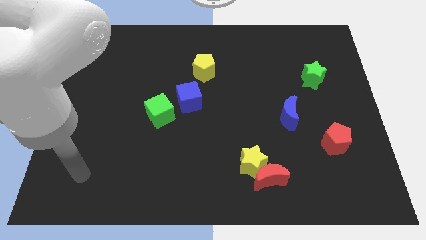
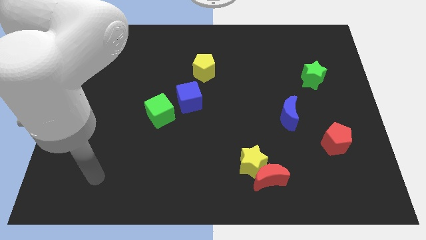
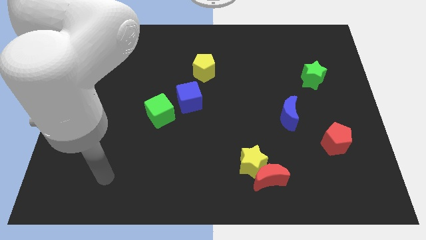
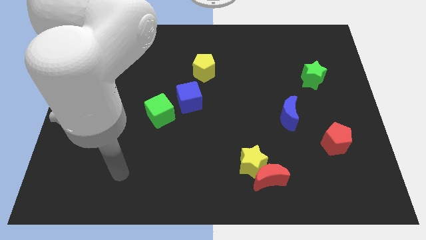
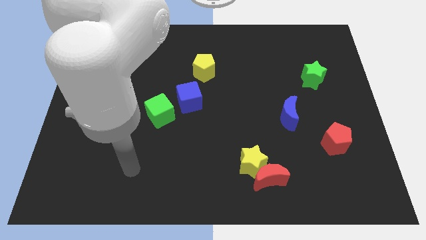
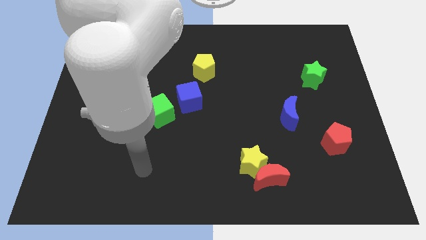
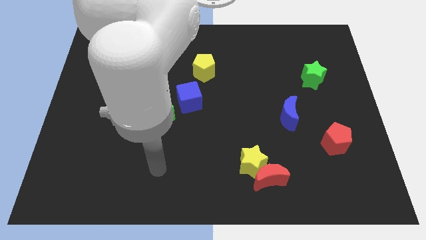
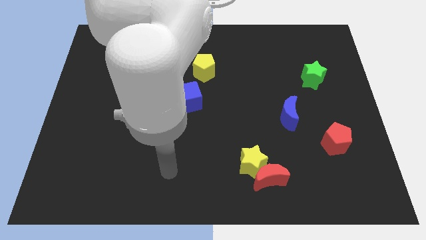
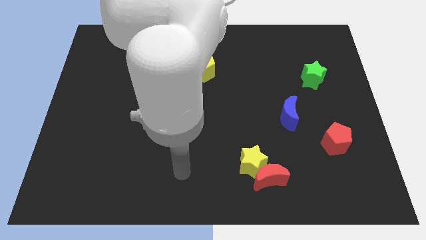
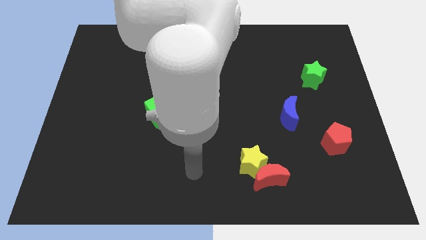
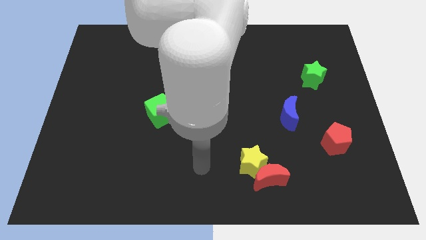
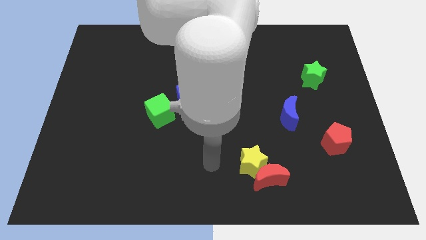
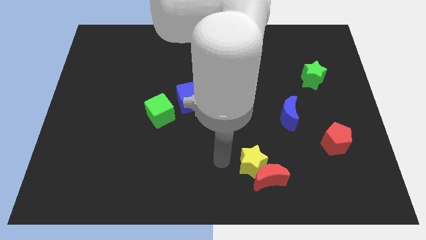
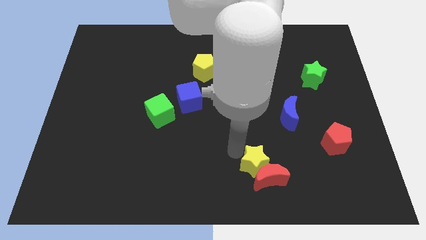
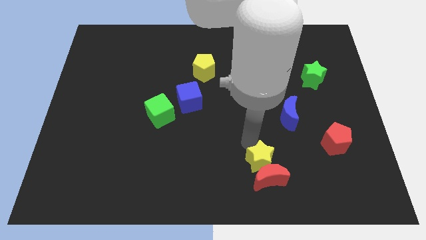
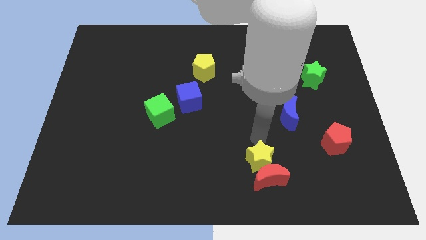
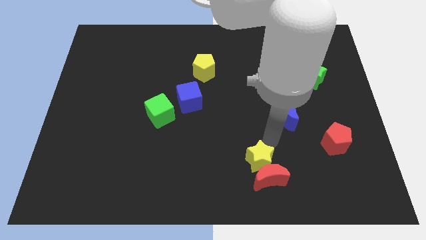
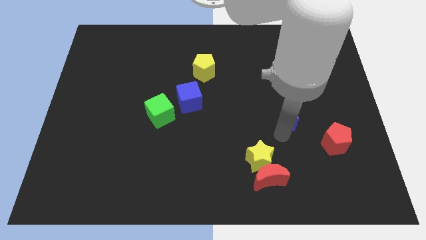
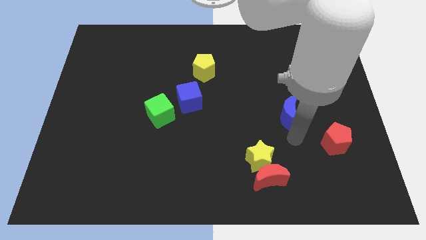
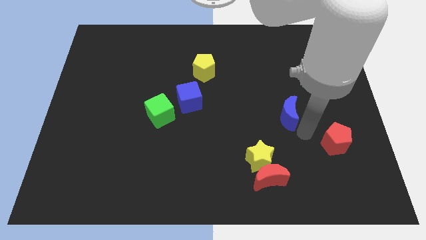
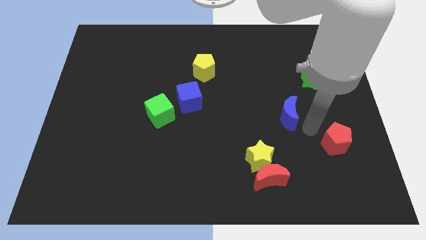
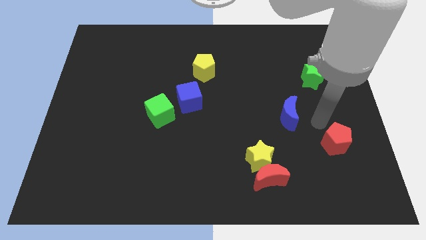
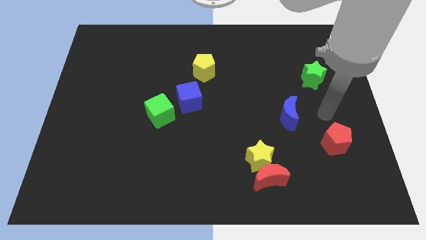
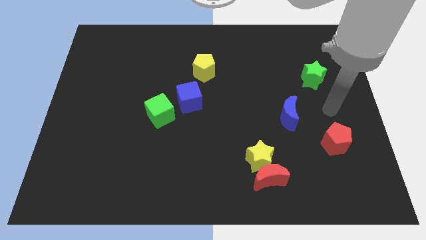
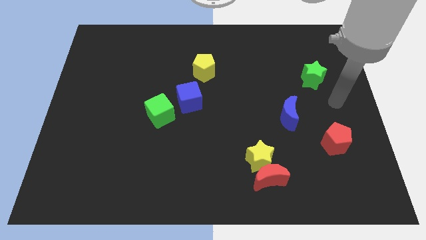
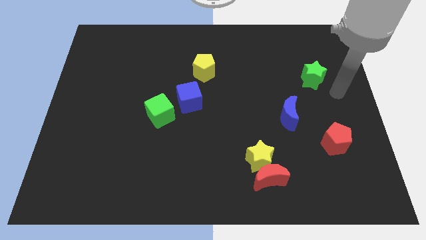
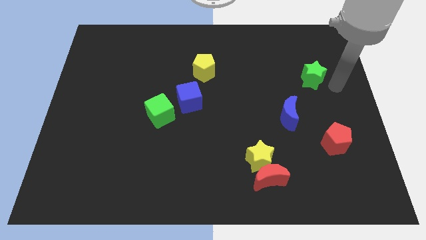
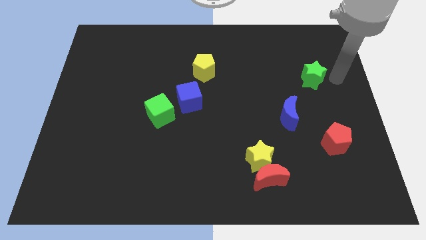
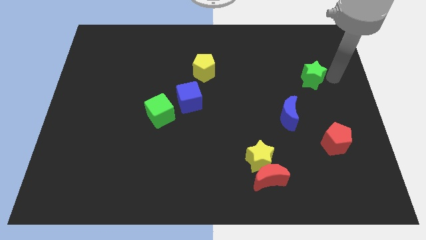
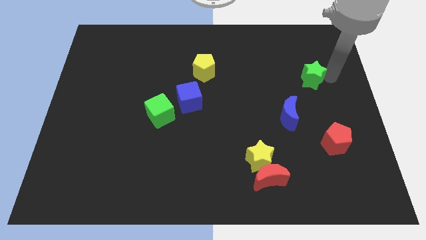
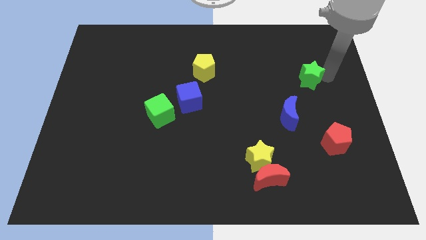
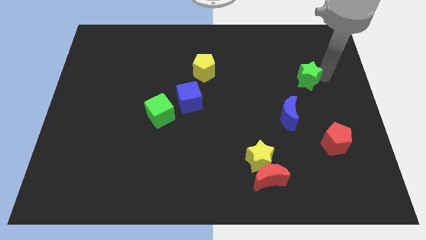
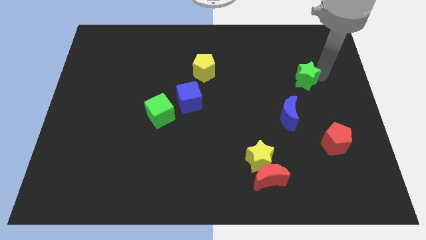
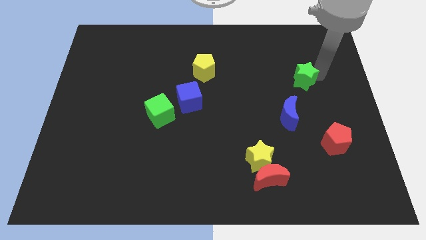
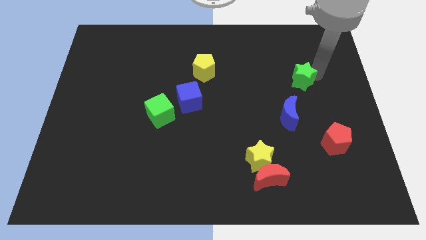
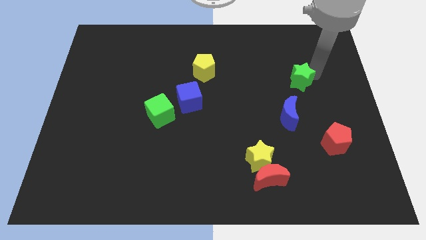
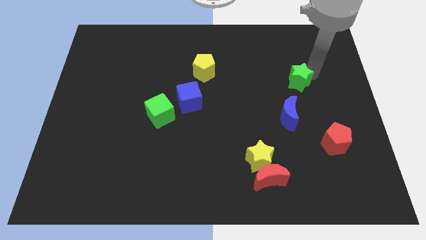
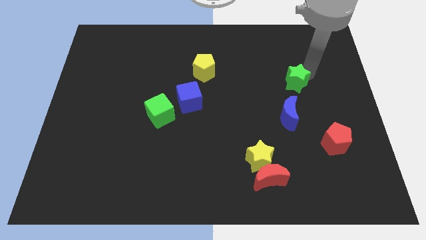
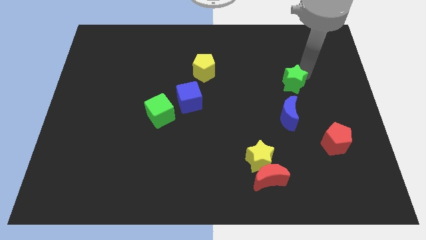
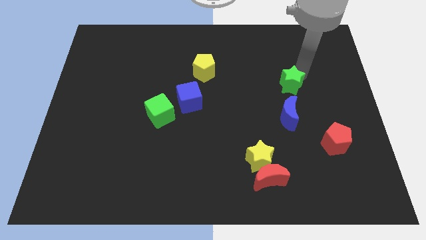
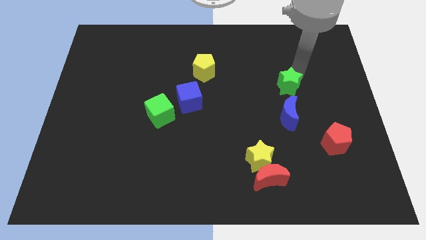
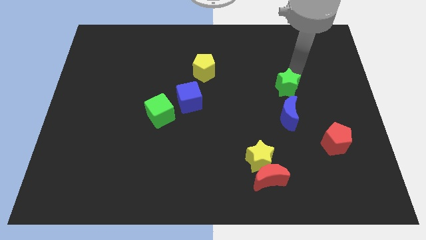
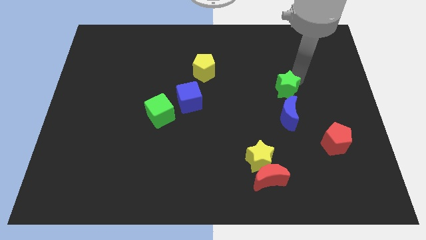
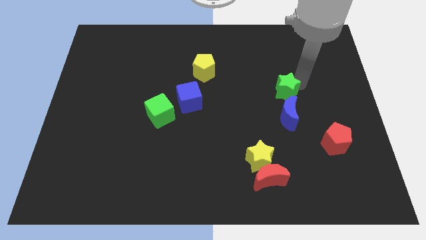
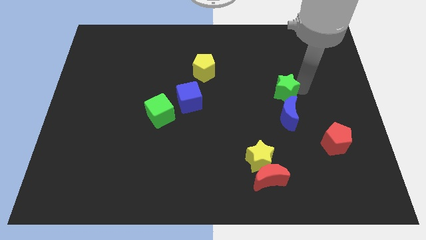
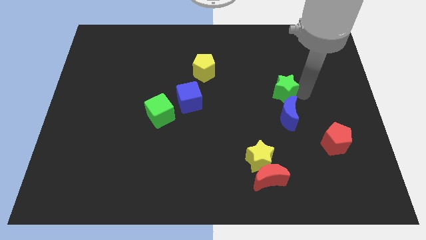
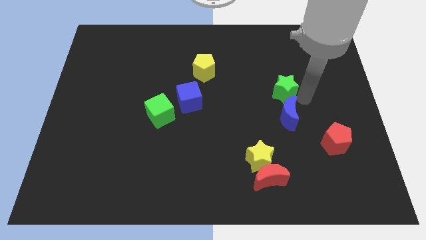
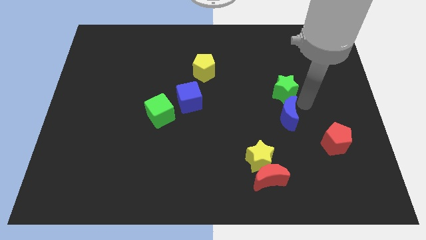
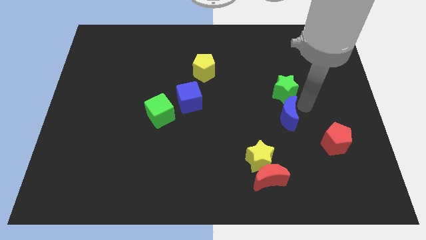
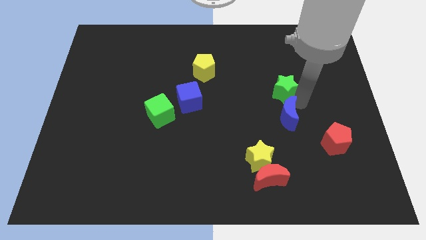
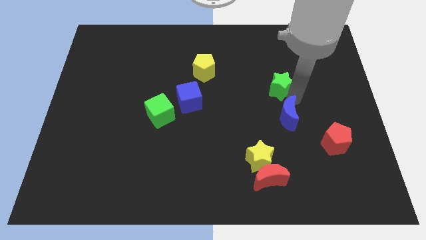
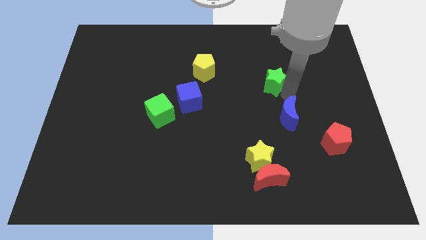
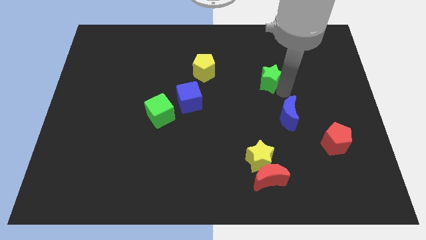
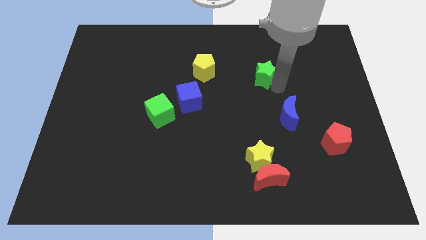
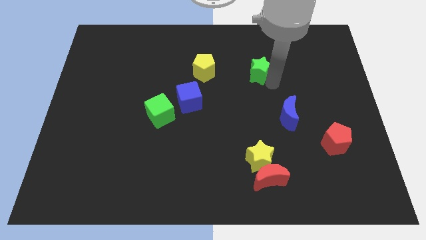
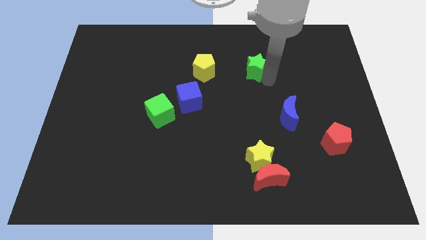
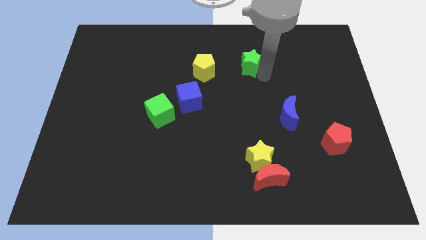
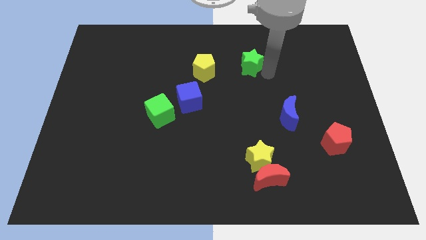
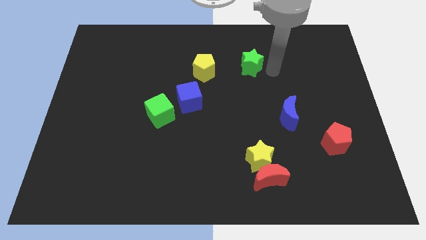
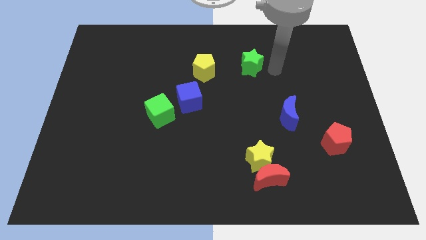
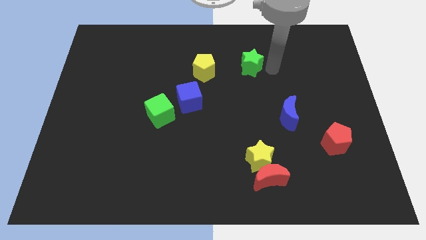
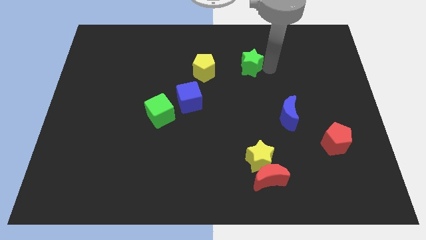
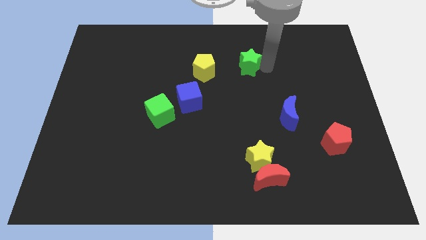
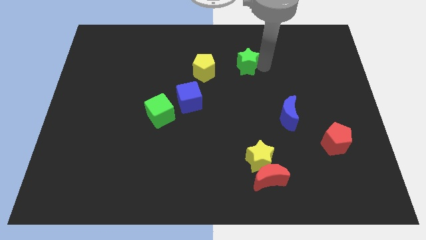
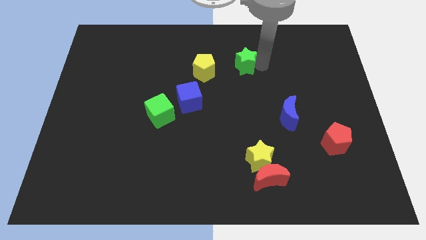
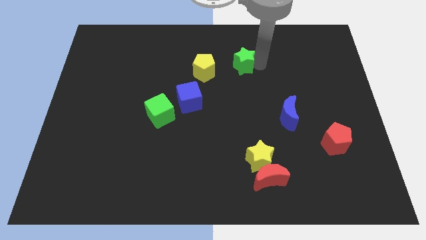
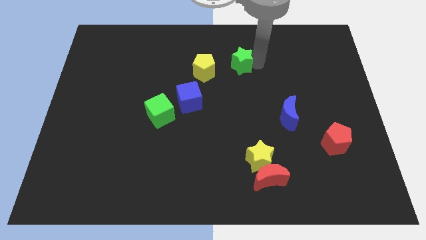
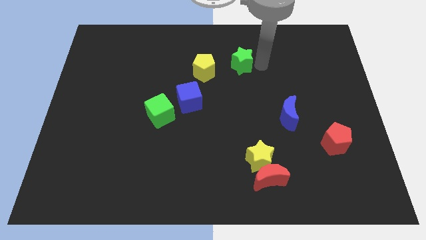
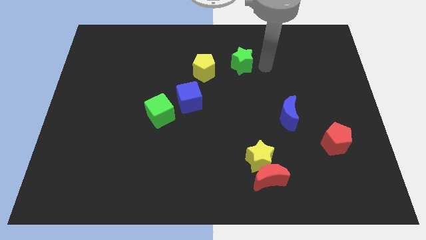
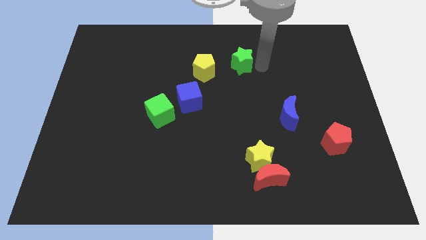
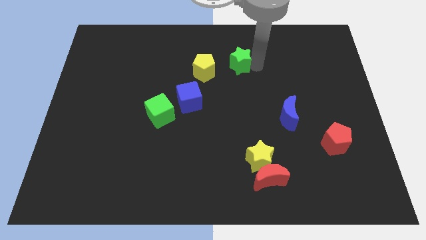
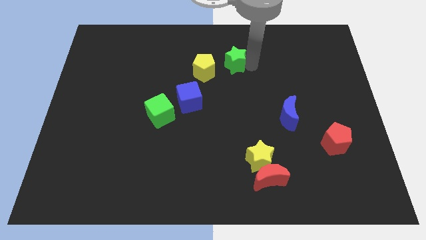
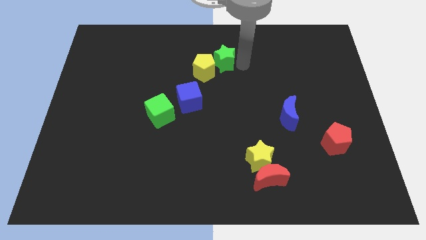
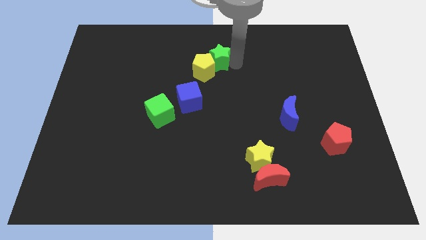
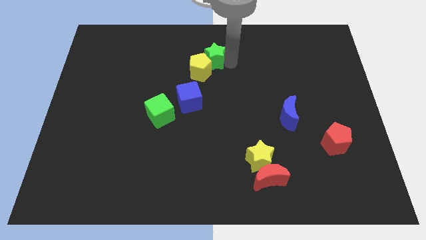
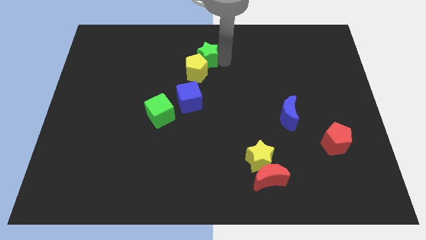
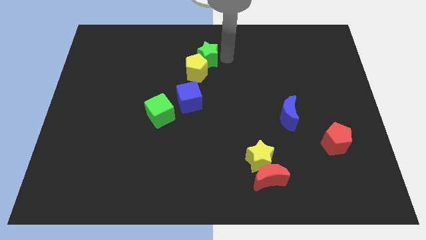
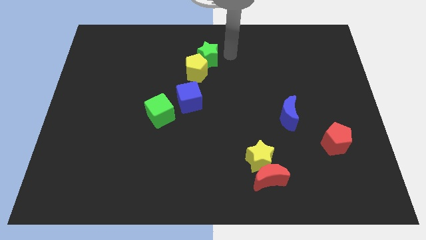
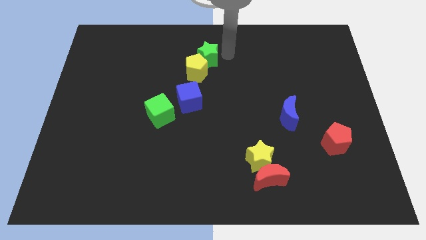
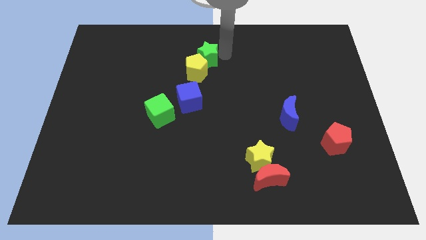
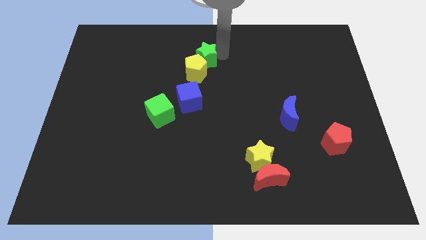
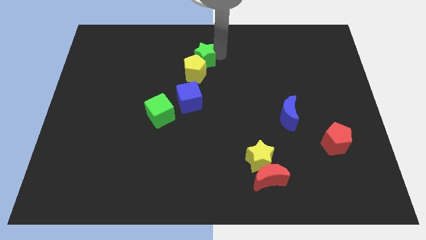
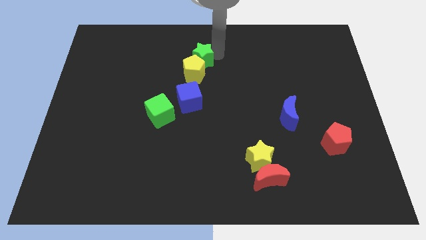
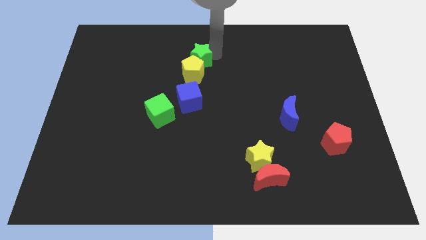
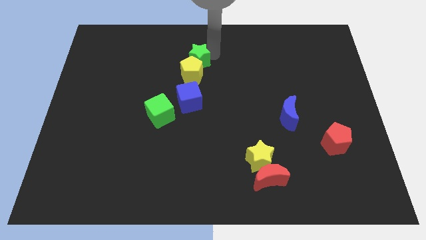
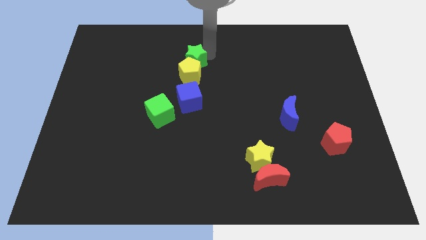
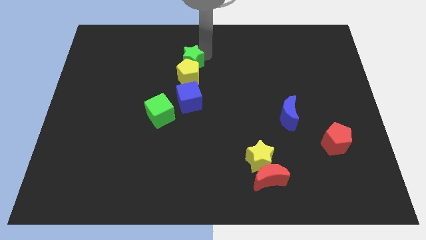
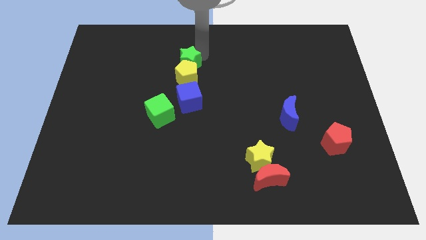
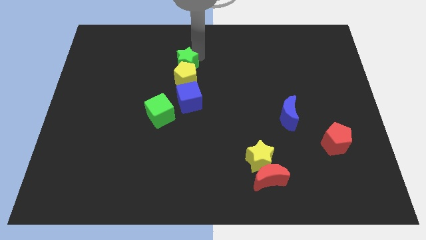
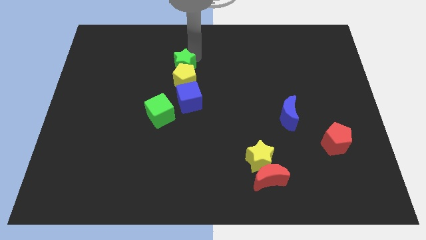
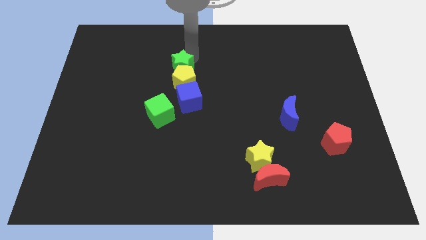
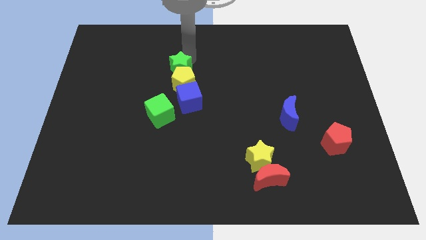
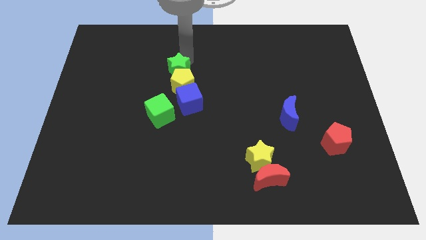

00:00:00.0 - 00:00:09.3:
slide the green star to the top left side of the blue cube
